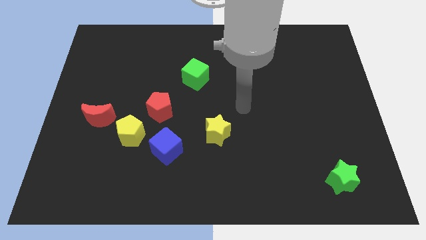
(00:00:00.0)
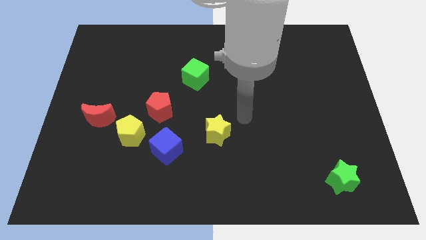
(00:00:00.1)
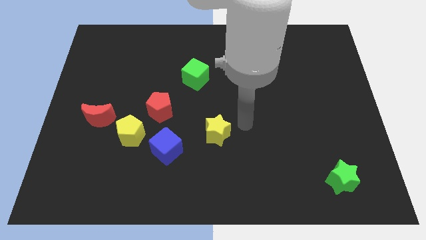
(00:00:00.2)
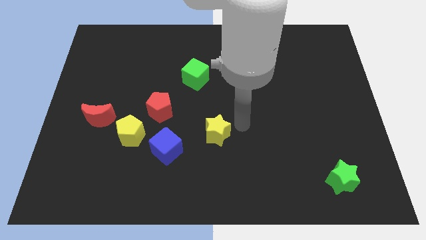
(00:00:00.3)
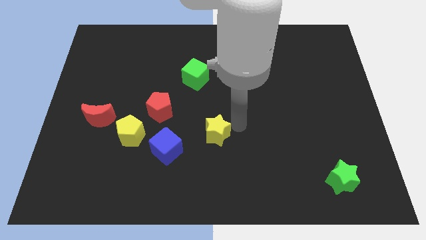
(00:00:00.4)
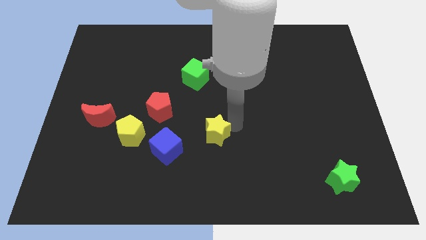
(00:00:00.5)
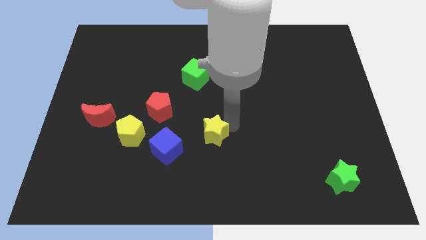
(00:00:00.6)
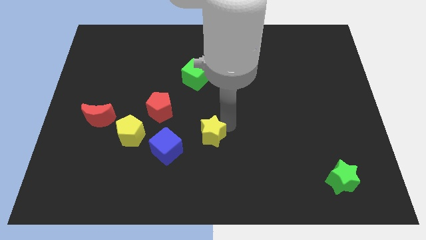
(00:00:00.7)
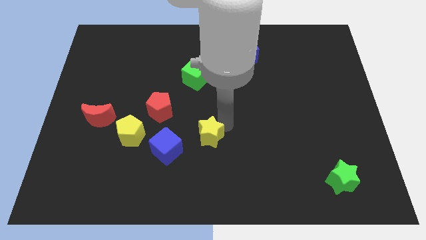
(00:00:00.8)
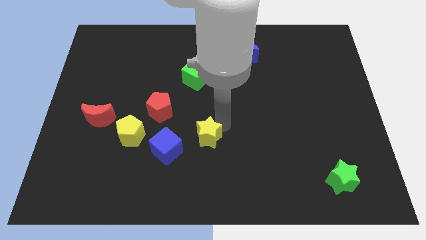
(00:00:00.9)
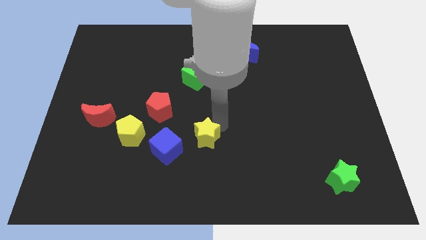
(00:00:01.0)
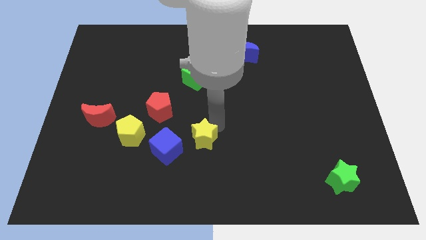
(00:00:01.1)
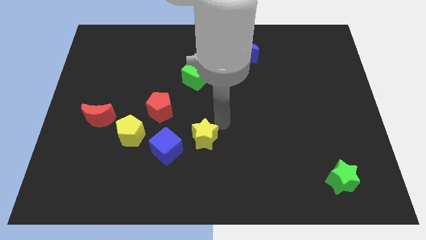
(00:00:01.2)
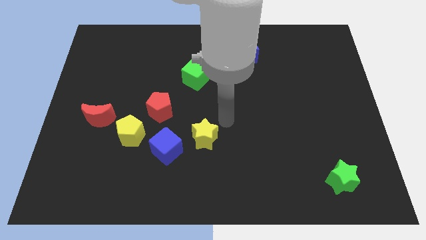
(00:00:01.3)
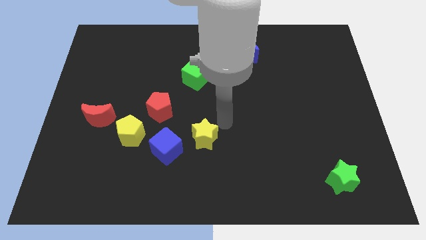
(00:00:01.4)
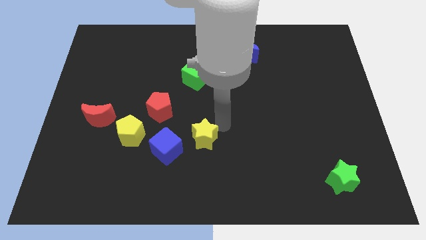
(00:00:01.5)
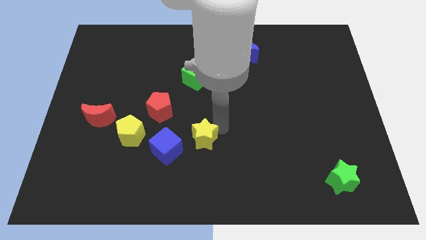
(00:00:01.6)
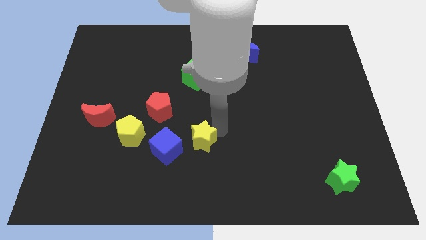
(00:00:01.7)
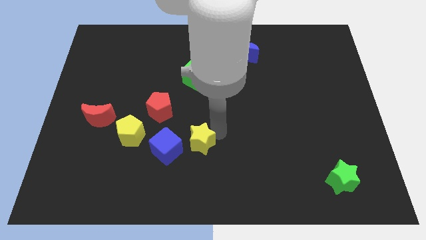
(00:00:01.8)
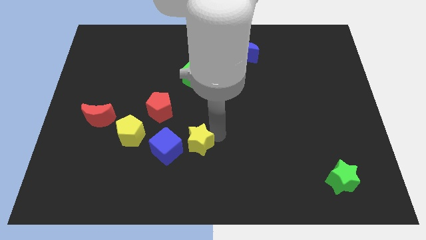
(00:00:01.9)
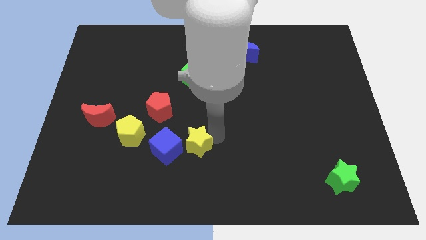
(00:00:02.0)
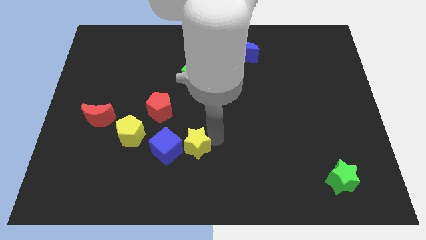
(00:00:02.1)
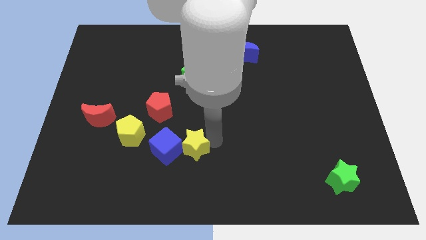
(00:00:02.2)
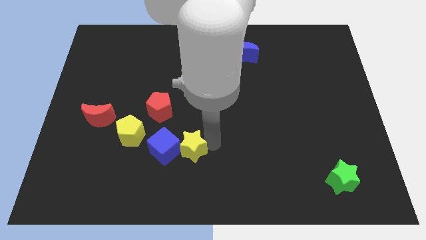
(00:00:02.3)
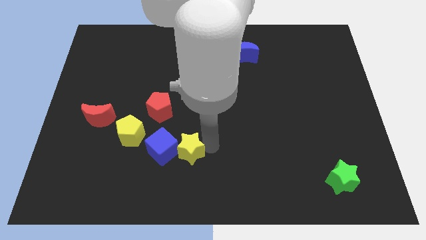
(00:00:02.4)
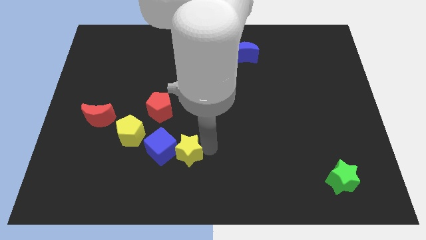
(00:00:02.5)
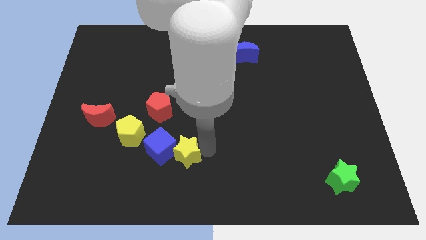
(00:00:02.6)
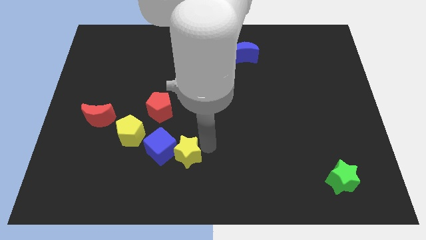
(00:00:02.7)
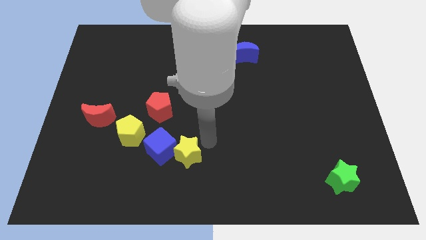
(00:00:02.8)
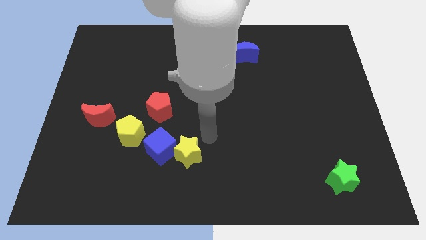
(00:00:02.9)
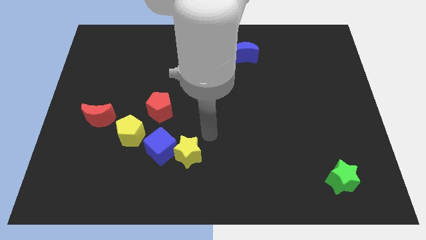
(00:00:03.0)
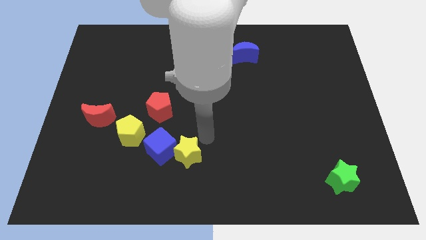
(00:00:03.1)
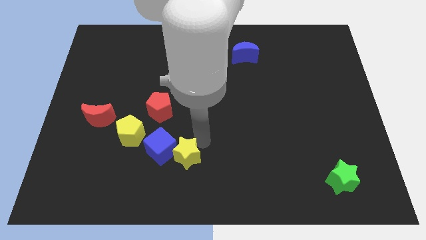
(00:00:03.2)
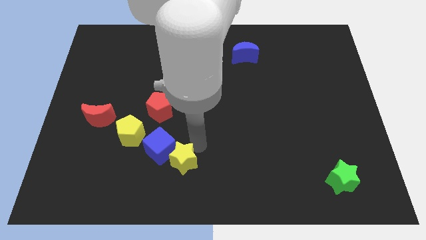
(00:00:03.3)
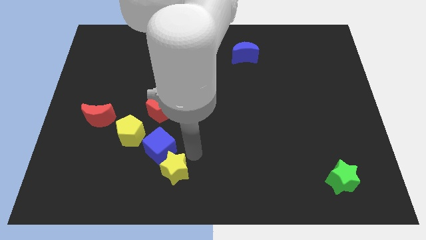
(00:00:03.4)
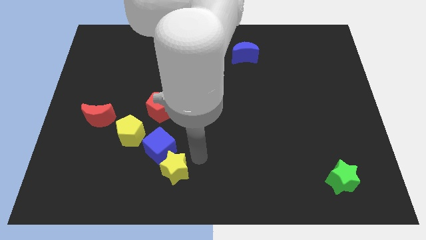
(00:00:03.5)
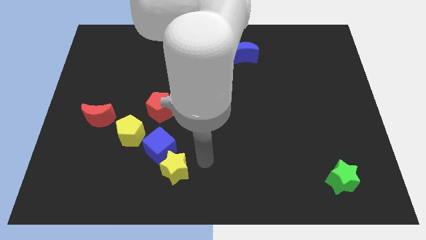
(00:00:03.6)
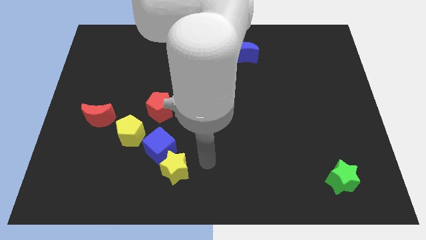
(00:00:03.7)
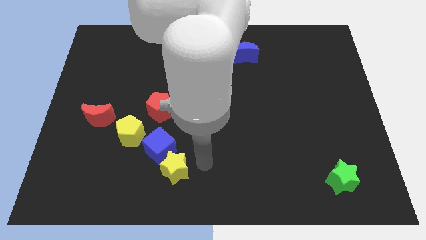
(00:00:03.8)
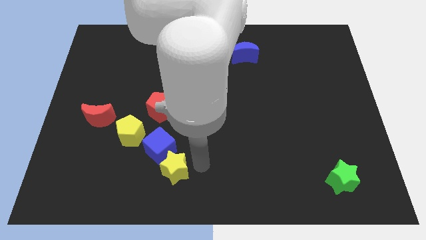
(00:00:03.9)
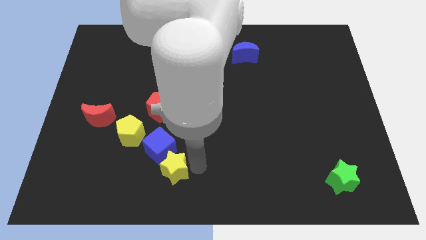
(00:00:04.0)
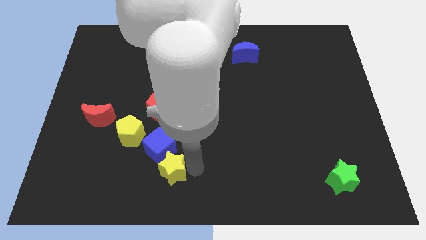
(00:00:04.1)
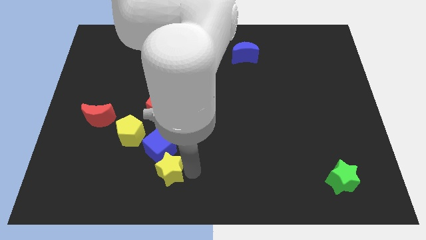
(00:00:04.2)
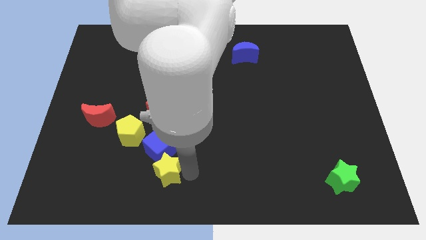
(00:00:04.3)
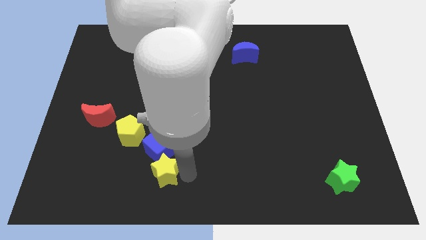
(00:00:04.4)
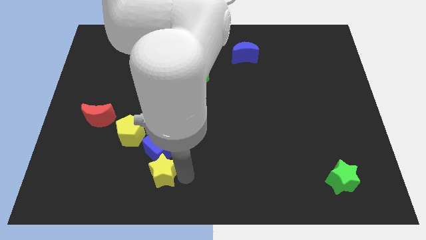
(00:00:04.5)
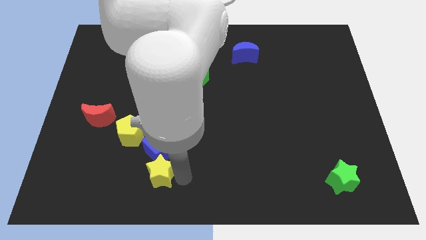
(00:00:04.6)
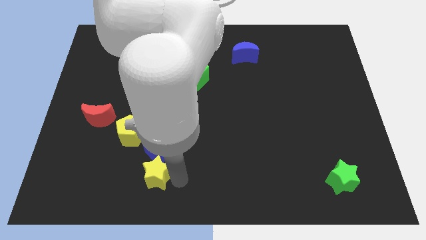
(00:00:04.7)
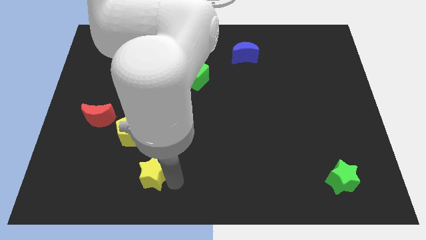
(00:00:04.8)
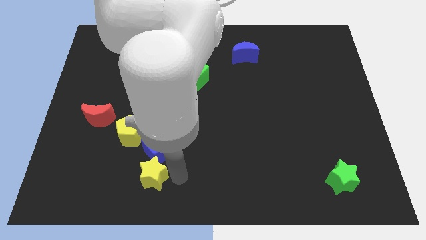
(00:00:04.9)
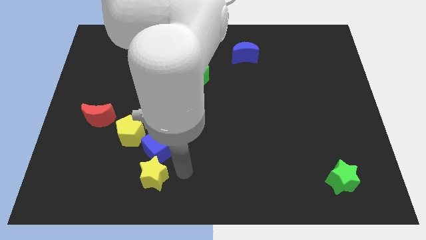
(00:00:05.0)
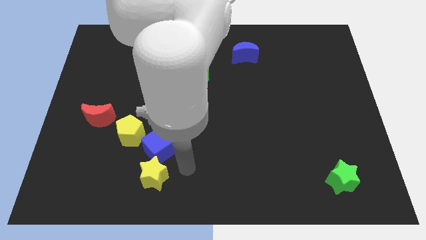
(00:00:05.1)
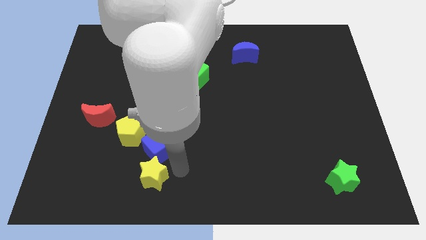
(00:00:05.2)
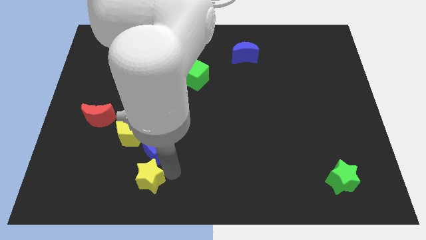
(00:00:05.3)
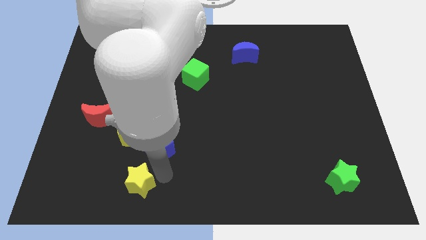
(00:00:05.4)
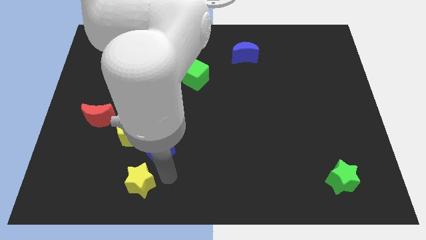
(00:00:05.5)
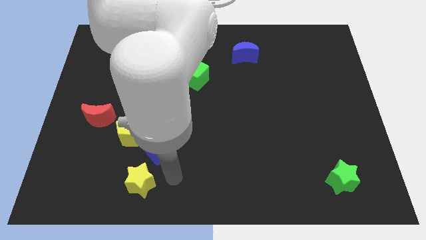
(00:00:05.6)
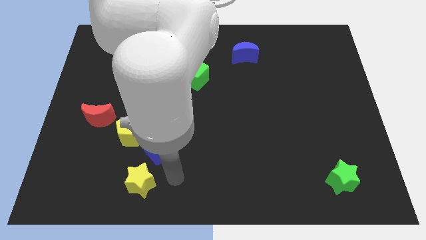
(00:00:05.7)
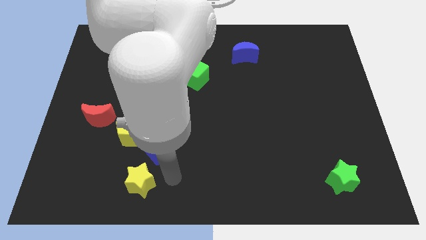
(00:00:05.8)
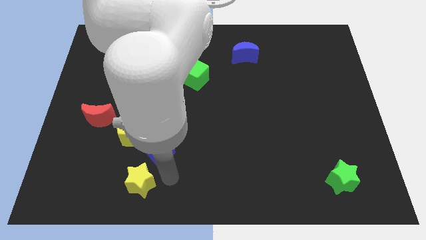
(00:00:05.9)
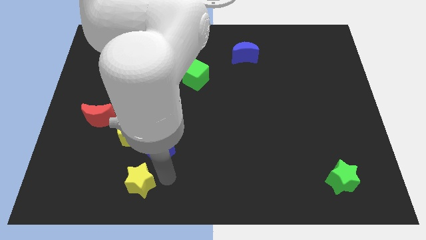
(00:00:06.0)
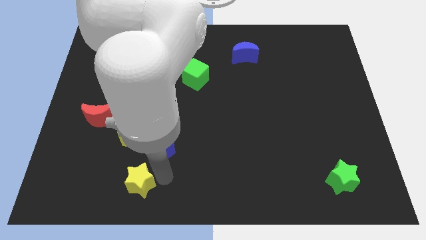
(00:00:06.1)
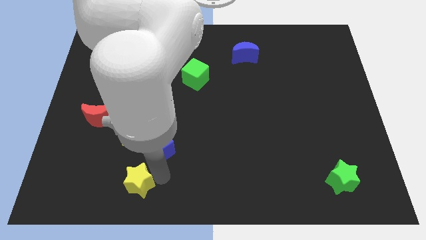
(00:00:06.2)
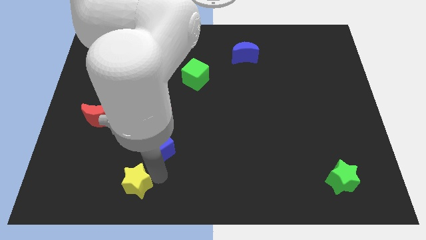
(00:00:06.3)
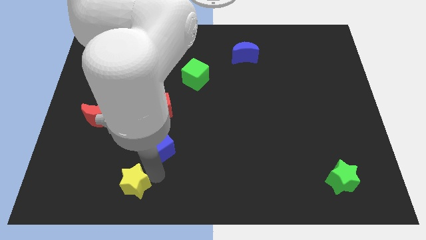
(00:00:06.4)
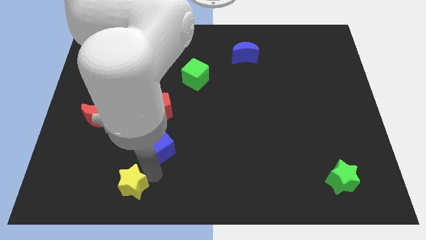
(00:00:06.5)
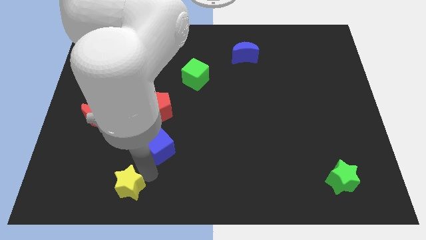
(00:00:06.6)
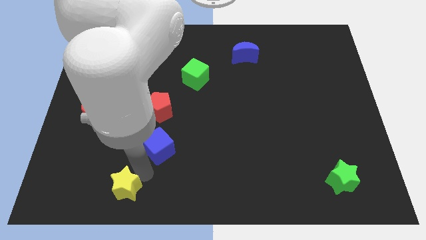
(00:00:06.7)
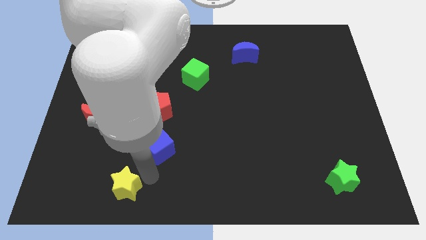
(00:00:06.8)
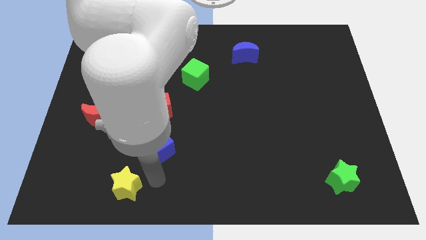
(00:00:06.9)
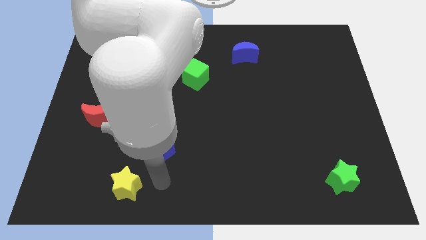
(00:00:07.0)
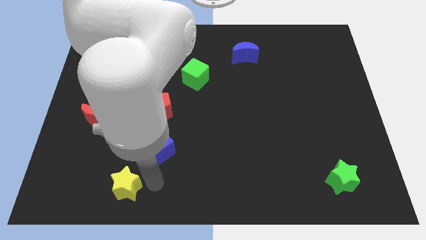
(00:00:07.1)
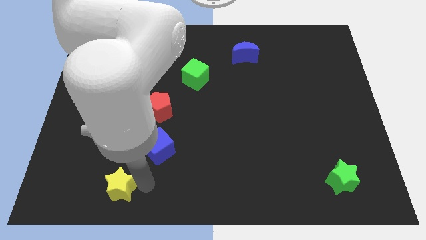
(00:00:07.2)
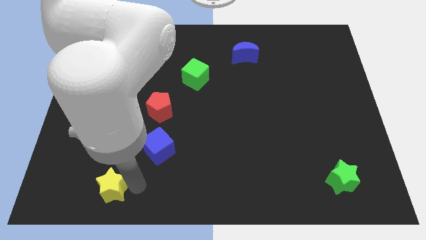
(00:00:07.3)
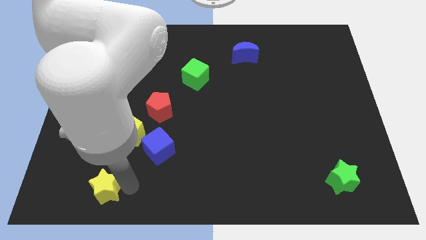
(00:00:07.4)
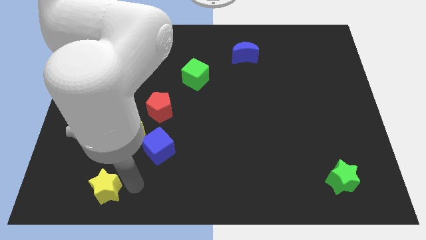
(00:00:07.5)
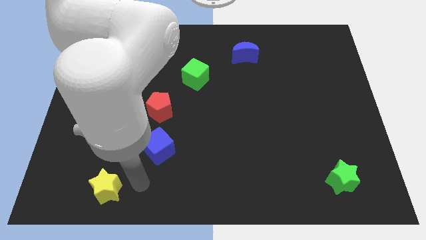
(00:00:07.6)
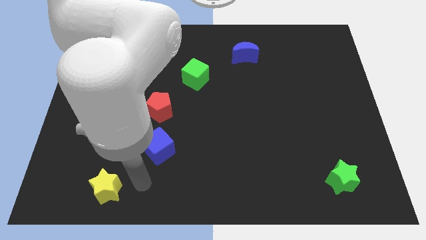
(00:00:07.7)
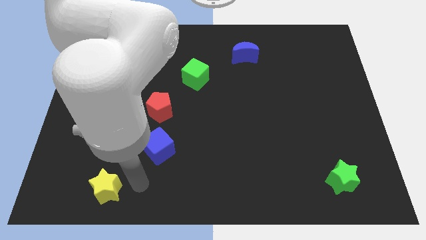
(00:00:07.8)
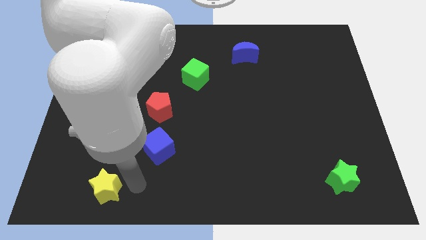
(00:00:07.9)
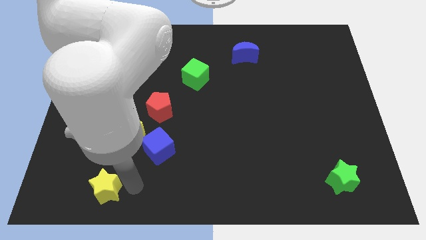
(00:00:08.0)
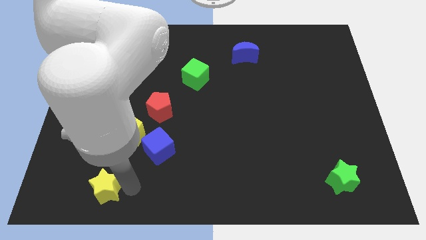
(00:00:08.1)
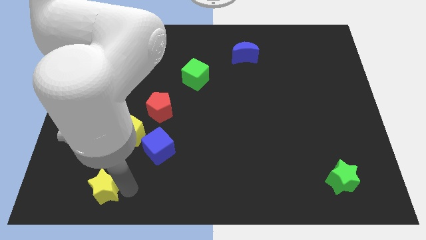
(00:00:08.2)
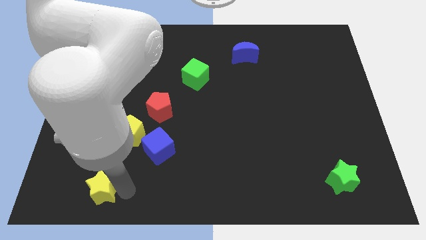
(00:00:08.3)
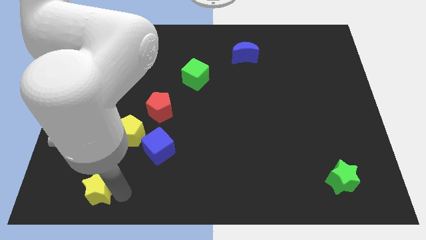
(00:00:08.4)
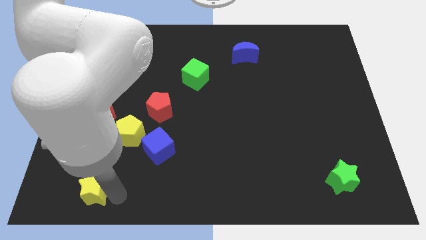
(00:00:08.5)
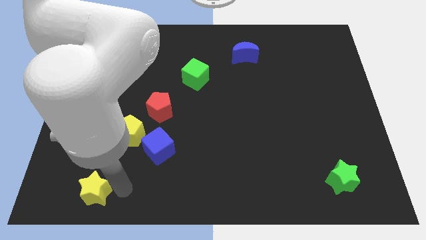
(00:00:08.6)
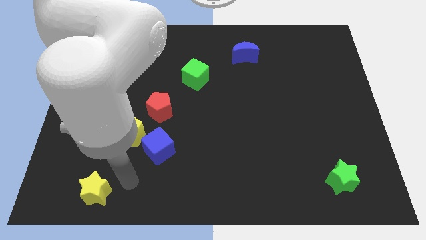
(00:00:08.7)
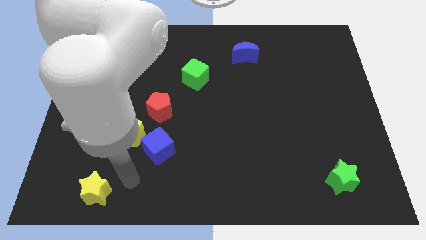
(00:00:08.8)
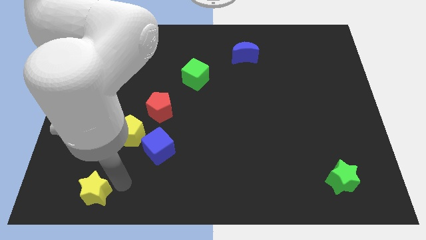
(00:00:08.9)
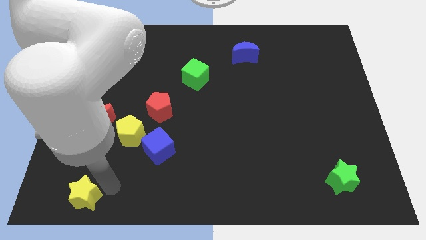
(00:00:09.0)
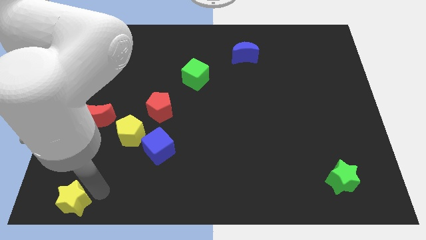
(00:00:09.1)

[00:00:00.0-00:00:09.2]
push the yellow star to the bottom left
